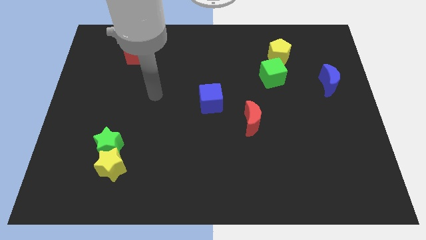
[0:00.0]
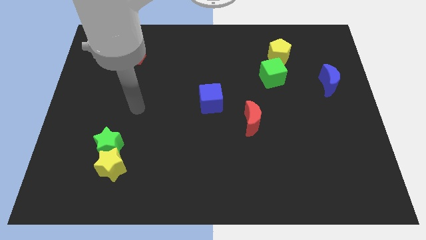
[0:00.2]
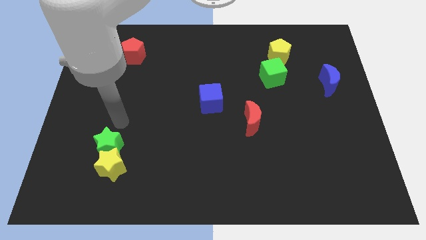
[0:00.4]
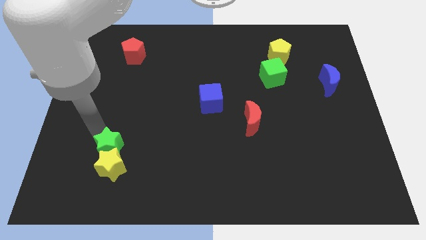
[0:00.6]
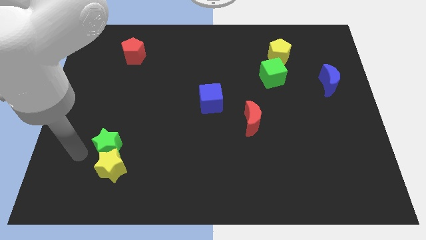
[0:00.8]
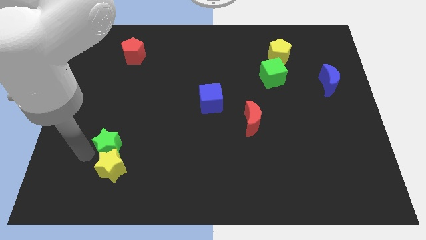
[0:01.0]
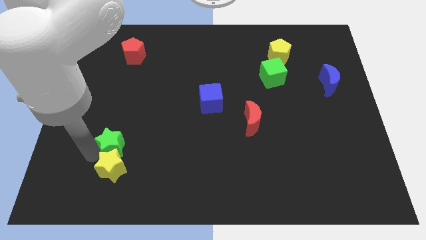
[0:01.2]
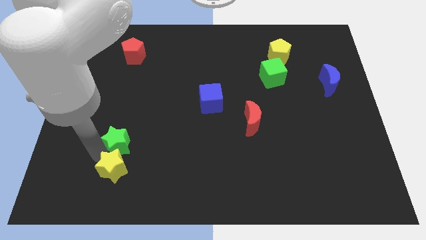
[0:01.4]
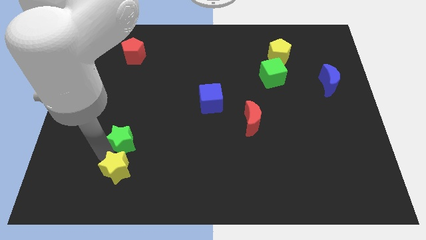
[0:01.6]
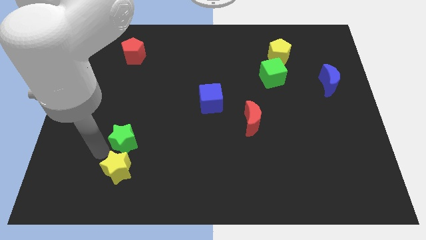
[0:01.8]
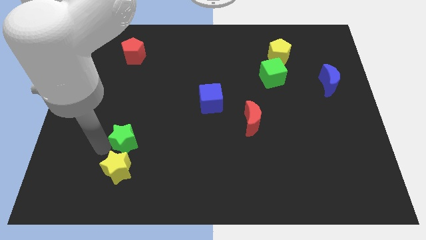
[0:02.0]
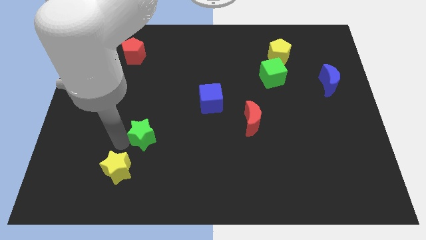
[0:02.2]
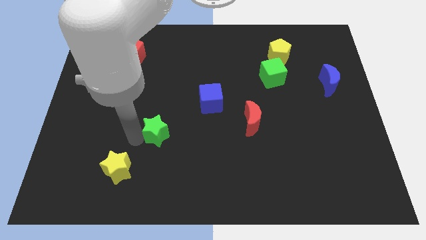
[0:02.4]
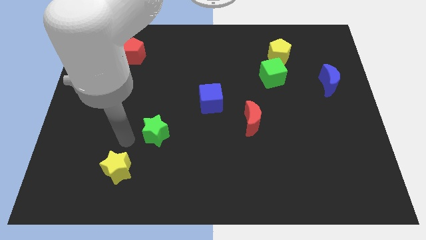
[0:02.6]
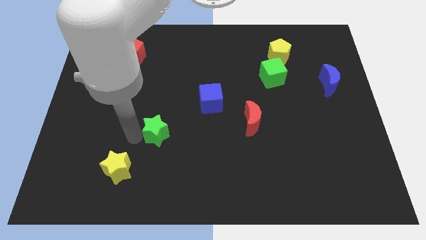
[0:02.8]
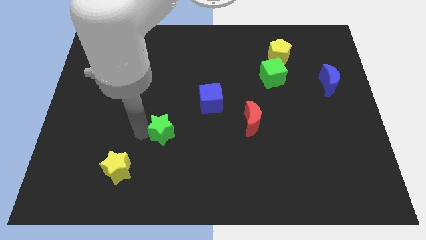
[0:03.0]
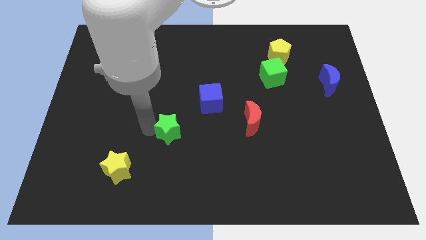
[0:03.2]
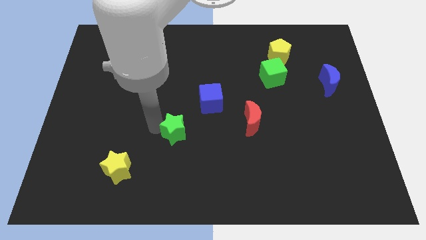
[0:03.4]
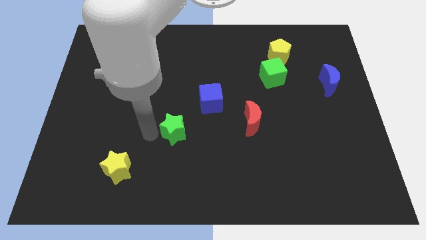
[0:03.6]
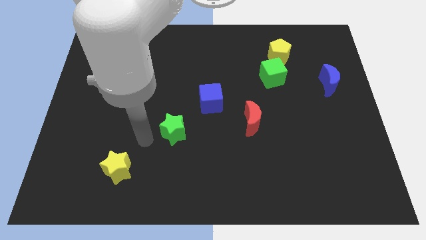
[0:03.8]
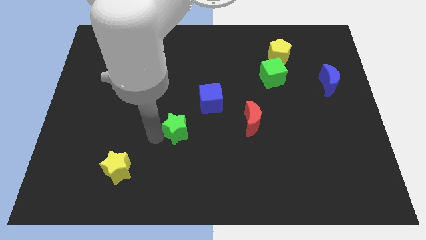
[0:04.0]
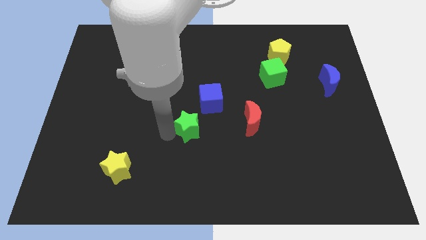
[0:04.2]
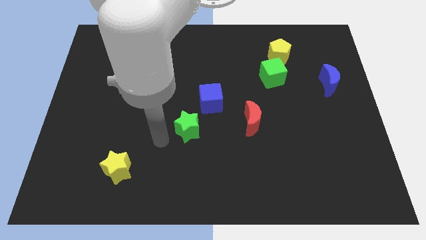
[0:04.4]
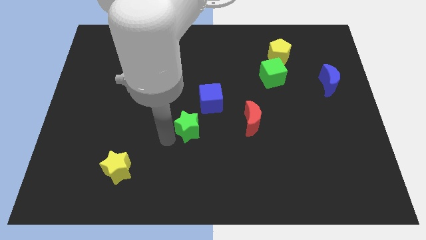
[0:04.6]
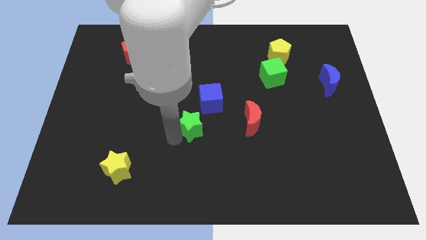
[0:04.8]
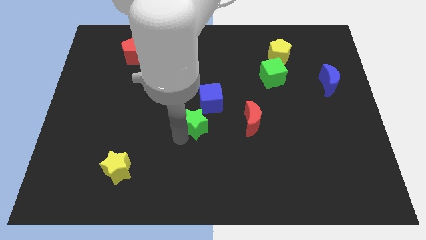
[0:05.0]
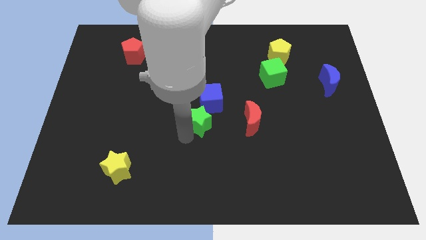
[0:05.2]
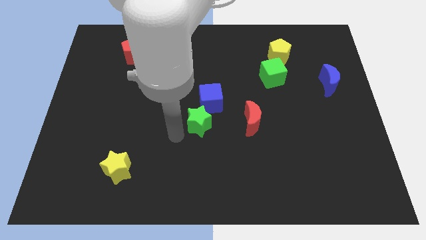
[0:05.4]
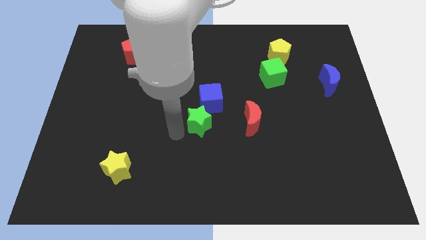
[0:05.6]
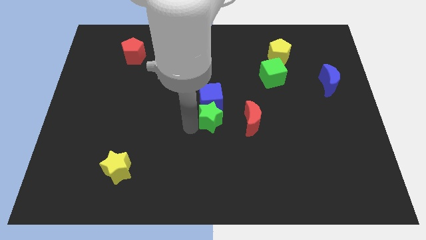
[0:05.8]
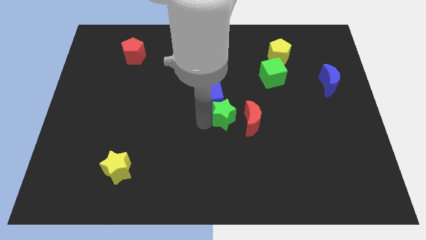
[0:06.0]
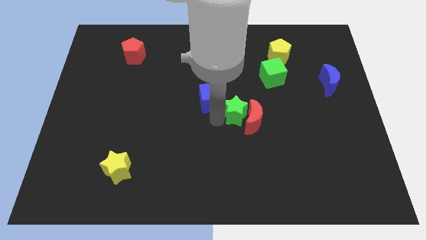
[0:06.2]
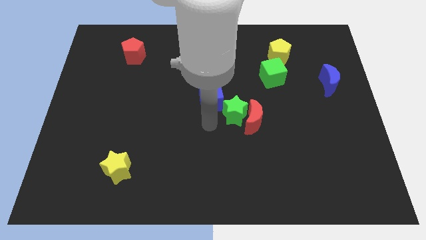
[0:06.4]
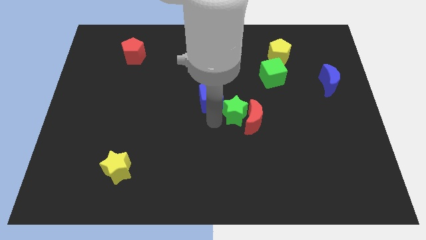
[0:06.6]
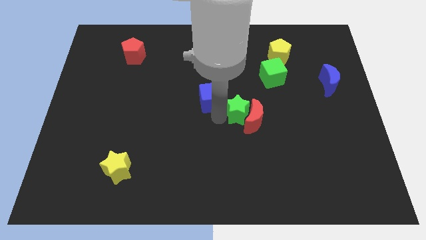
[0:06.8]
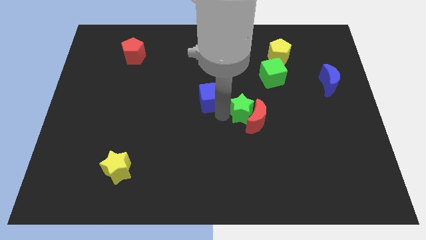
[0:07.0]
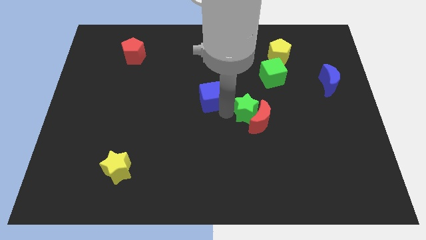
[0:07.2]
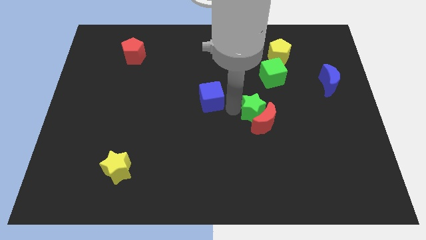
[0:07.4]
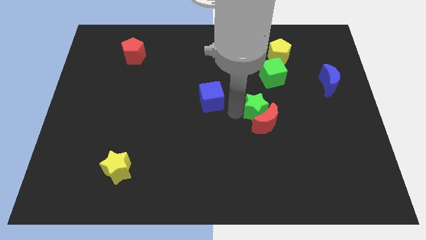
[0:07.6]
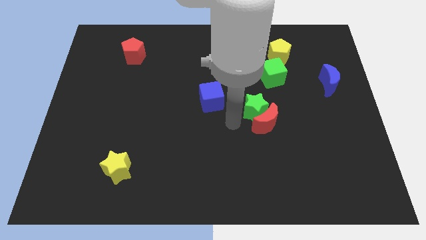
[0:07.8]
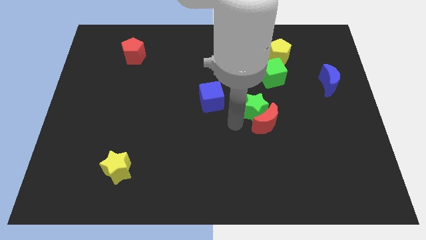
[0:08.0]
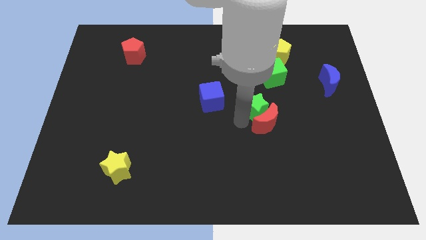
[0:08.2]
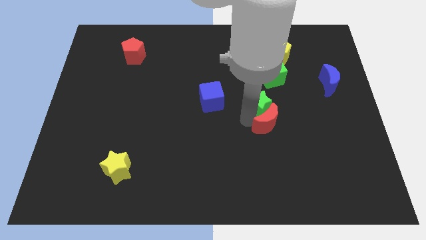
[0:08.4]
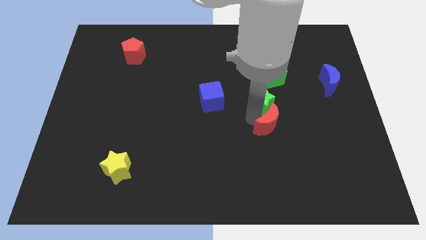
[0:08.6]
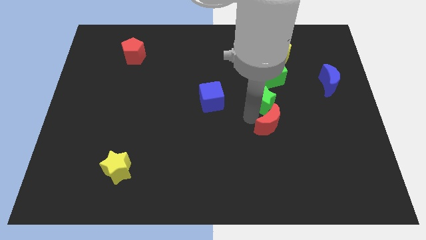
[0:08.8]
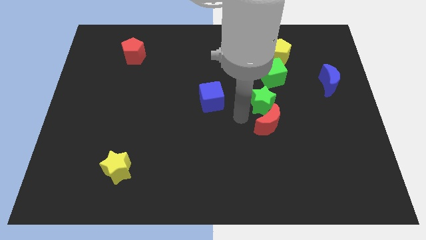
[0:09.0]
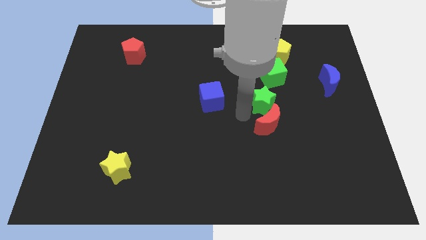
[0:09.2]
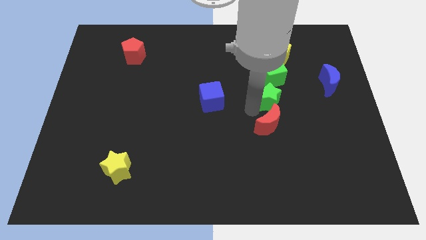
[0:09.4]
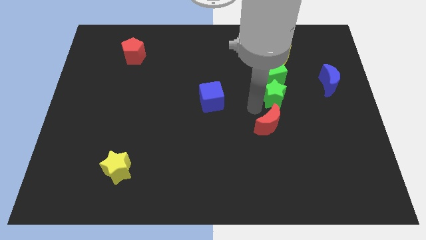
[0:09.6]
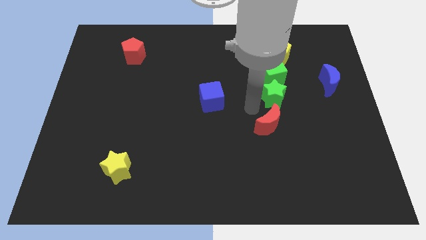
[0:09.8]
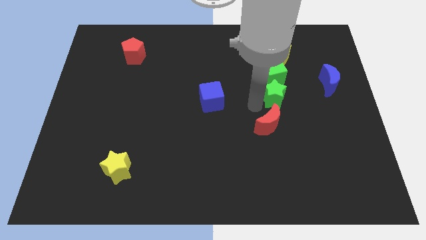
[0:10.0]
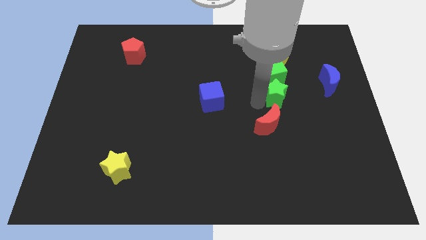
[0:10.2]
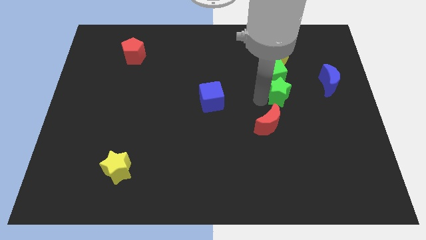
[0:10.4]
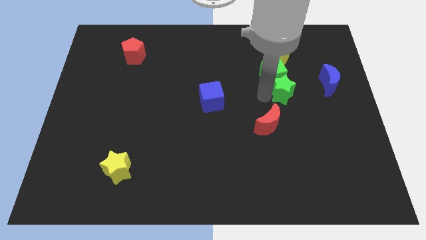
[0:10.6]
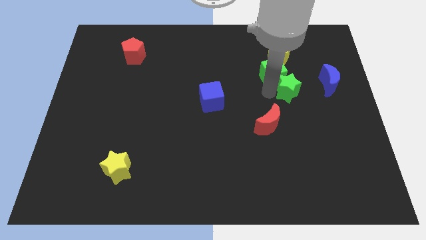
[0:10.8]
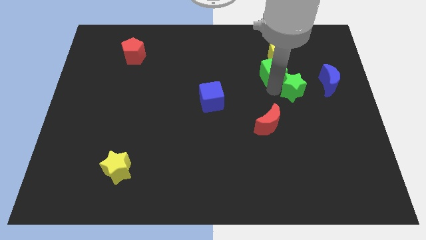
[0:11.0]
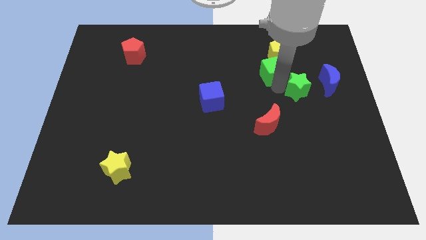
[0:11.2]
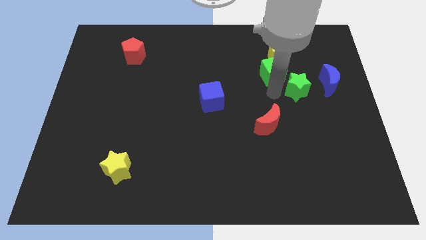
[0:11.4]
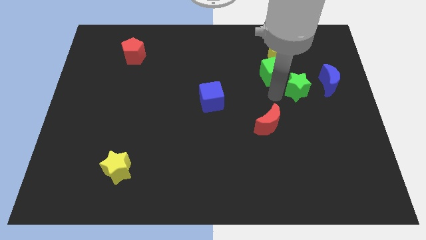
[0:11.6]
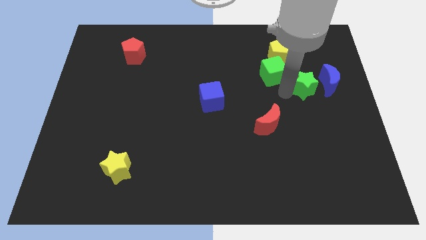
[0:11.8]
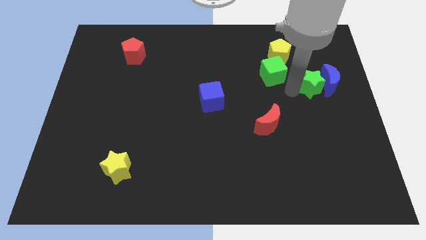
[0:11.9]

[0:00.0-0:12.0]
move the green star towards the blue moon

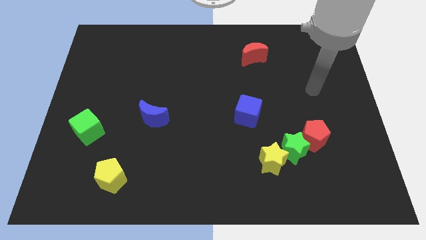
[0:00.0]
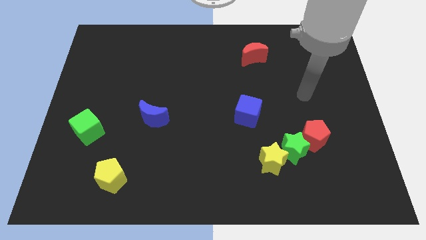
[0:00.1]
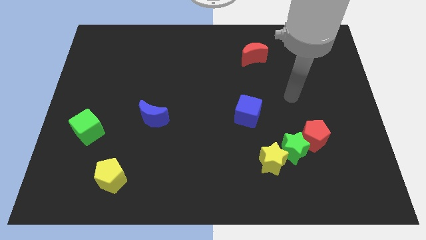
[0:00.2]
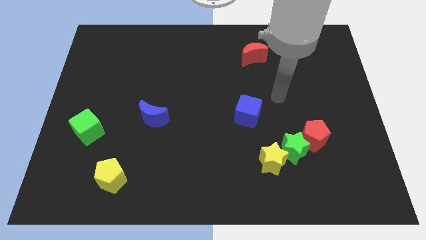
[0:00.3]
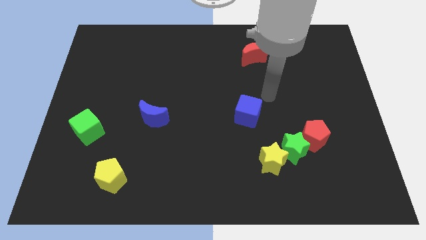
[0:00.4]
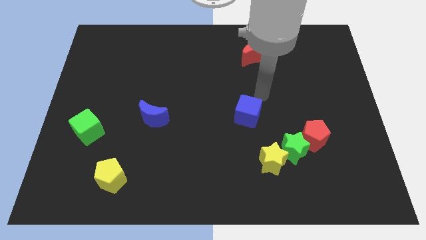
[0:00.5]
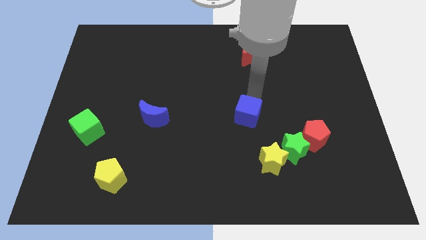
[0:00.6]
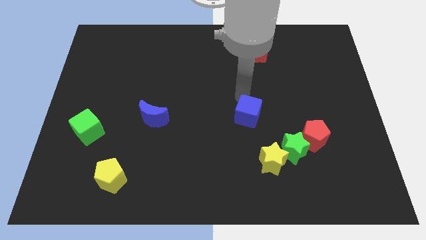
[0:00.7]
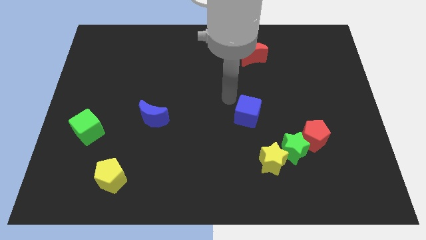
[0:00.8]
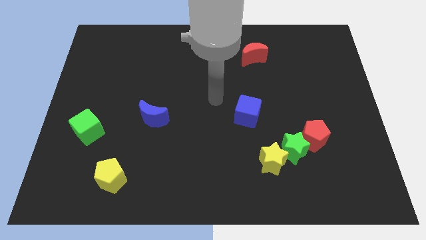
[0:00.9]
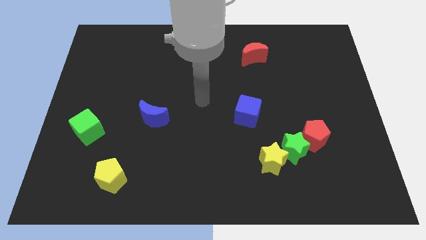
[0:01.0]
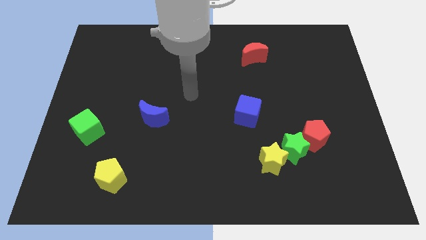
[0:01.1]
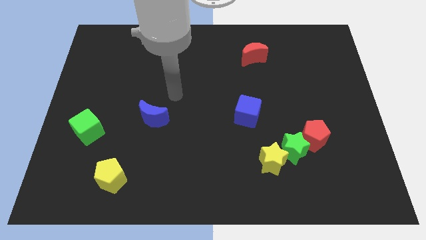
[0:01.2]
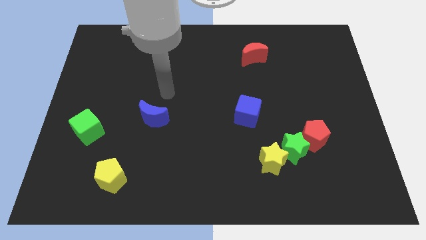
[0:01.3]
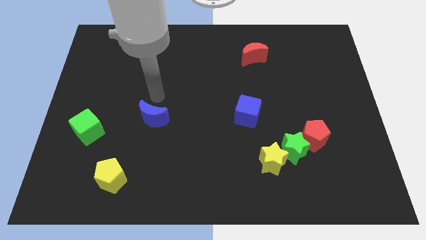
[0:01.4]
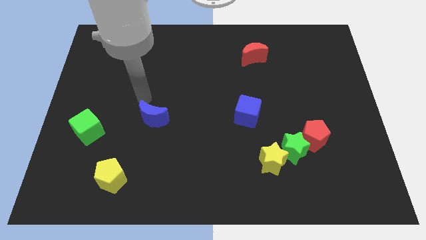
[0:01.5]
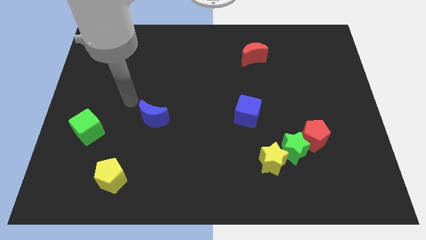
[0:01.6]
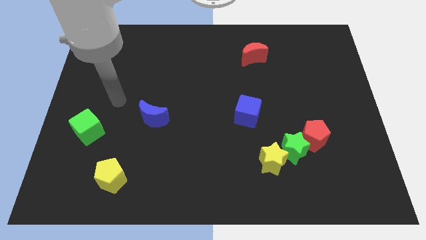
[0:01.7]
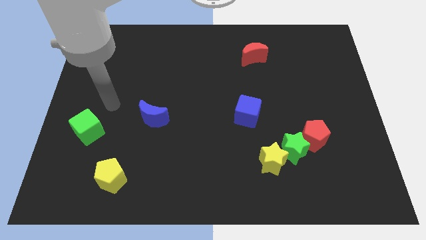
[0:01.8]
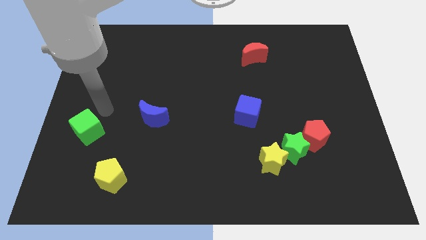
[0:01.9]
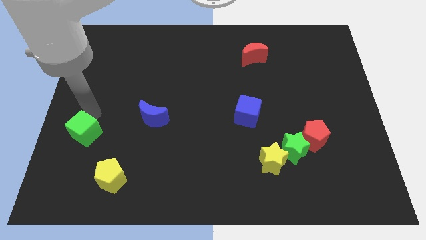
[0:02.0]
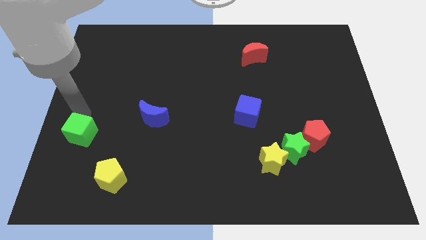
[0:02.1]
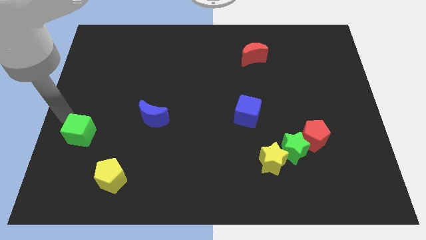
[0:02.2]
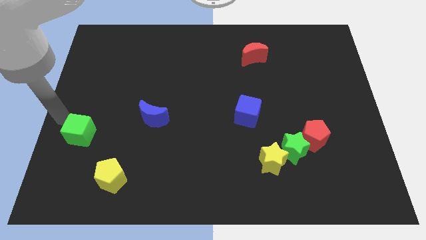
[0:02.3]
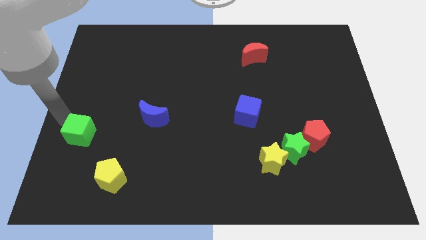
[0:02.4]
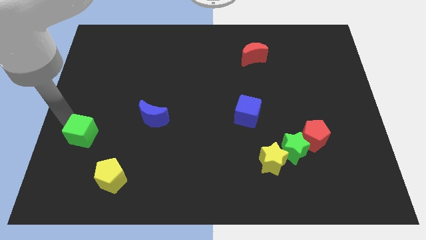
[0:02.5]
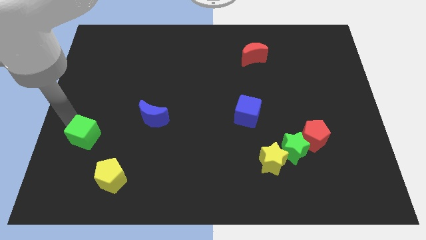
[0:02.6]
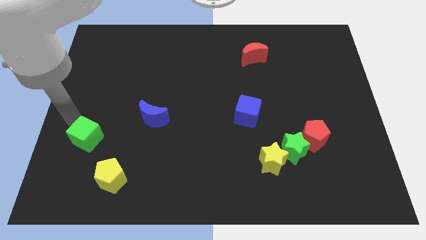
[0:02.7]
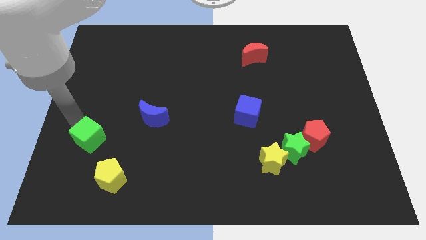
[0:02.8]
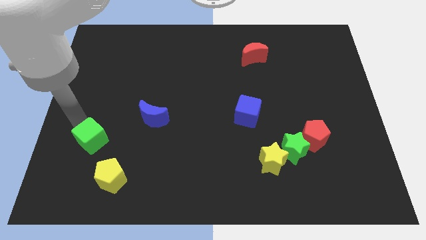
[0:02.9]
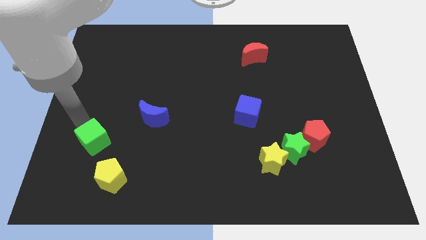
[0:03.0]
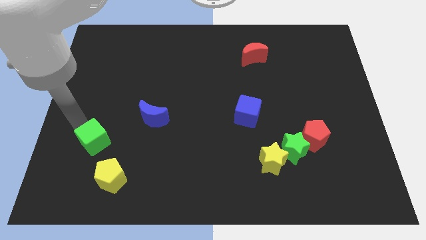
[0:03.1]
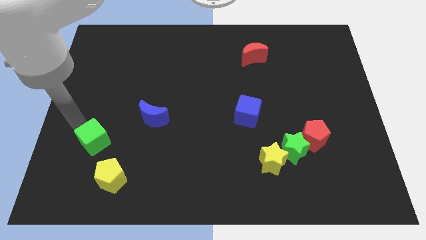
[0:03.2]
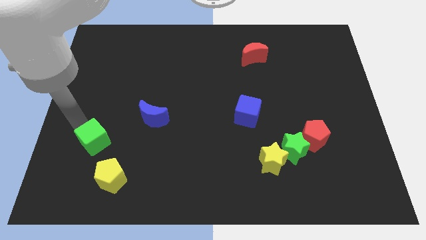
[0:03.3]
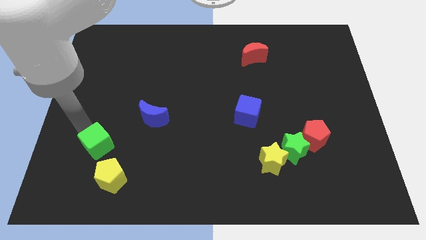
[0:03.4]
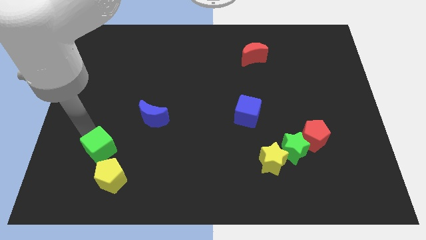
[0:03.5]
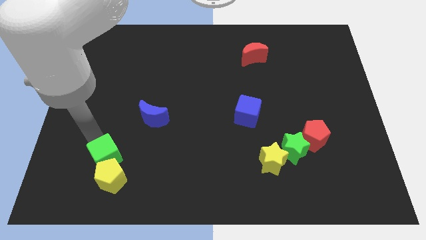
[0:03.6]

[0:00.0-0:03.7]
put the green cube next to the yellow pentagon
